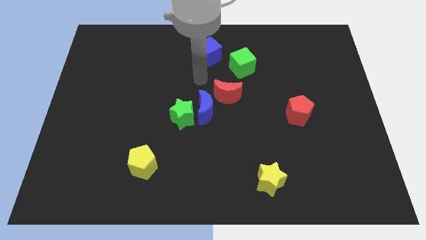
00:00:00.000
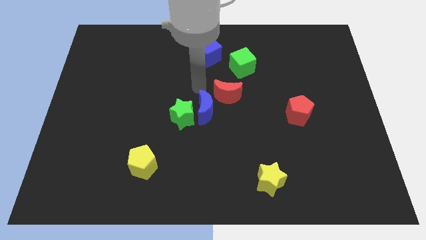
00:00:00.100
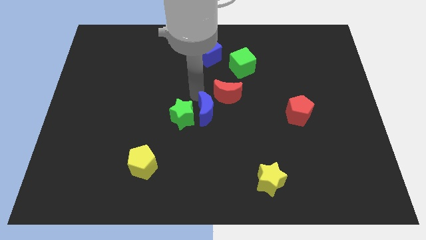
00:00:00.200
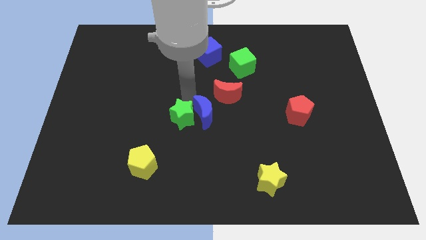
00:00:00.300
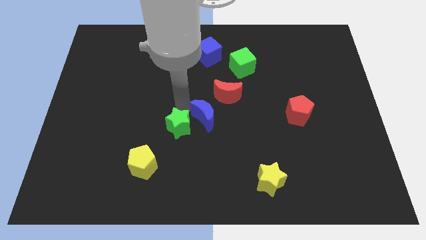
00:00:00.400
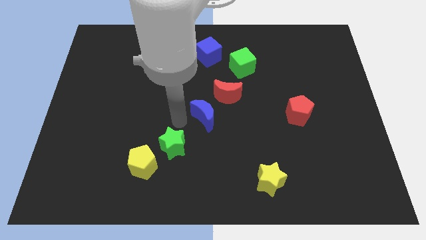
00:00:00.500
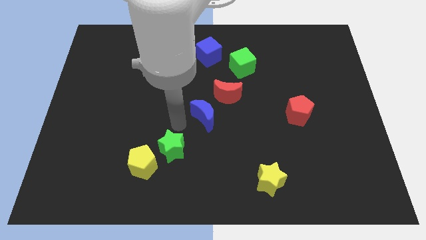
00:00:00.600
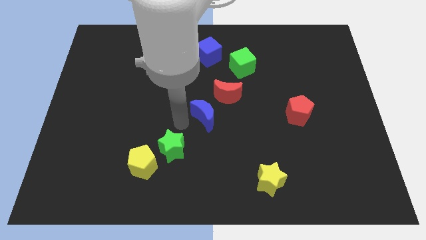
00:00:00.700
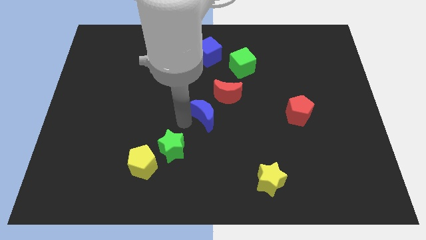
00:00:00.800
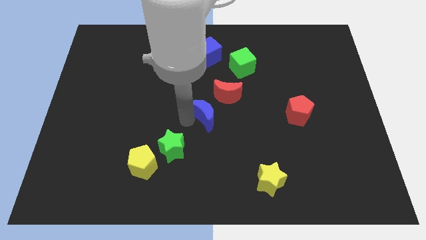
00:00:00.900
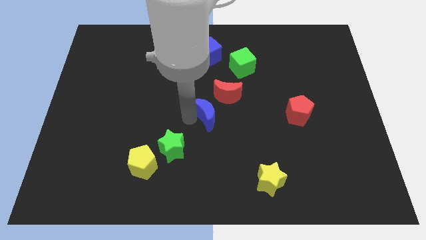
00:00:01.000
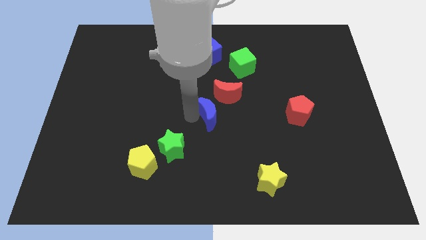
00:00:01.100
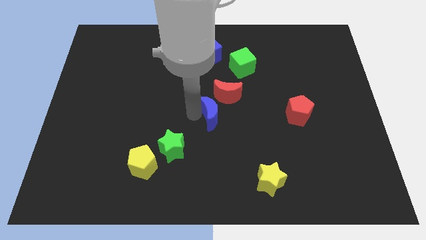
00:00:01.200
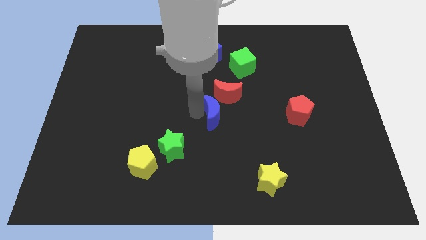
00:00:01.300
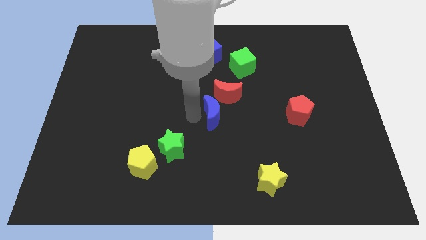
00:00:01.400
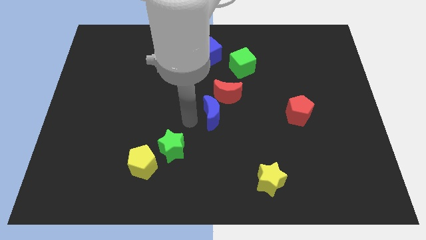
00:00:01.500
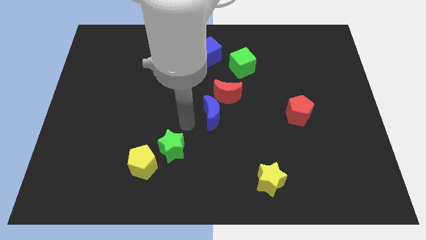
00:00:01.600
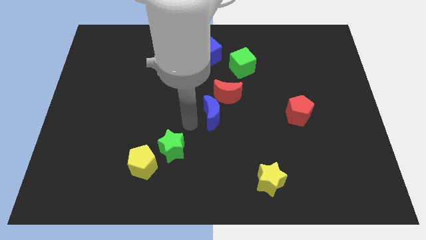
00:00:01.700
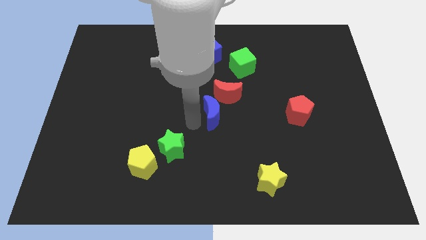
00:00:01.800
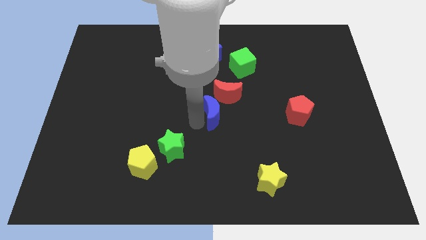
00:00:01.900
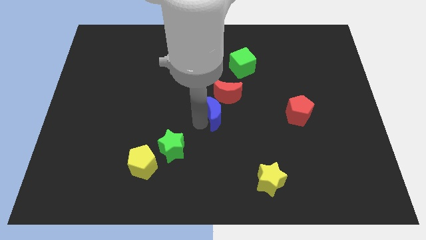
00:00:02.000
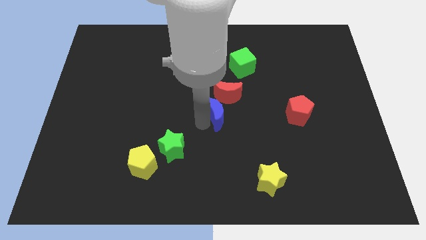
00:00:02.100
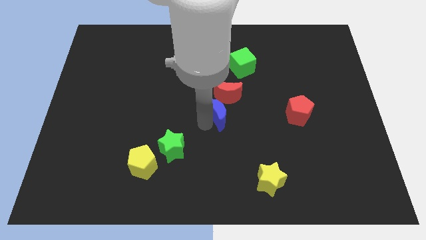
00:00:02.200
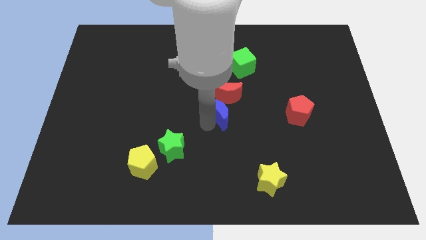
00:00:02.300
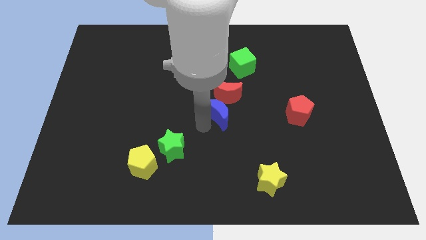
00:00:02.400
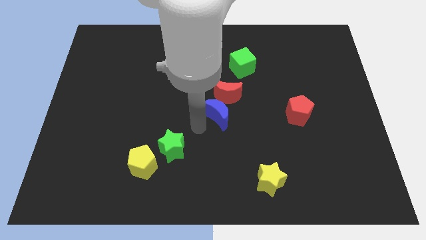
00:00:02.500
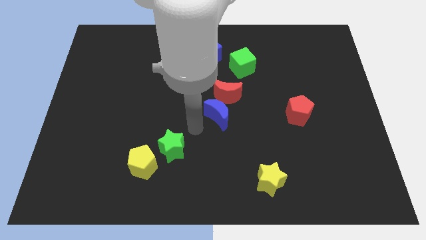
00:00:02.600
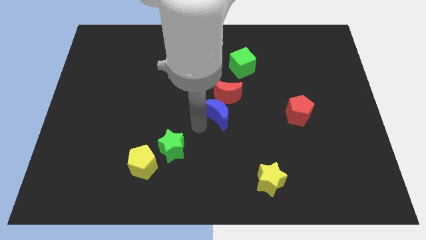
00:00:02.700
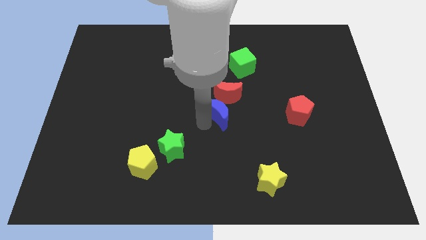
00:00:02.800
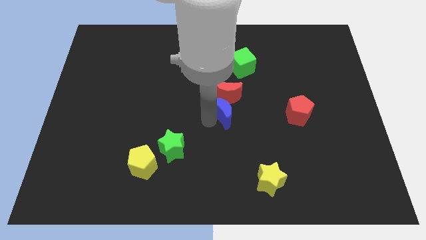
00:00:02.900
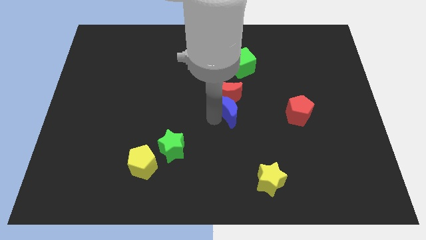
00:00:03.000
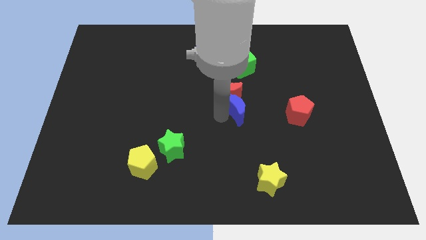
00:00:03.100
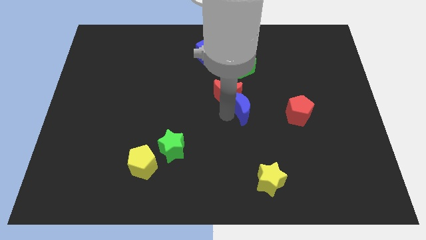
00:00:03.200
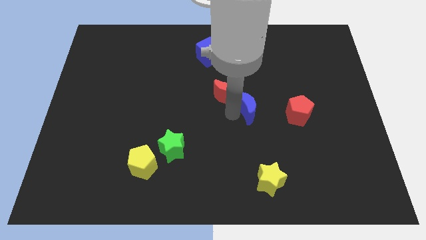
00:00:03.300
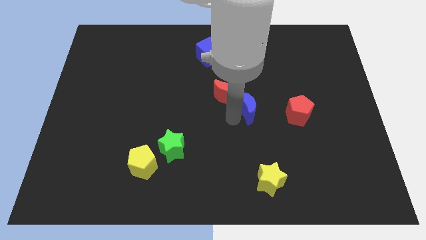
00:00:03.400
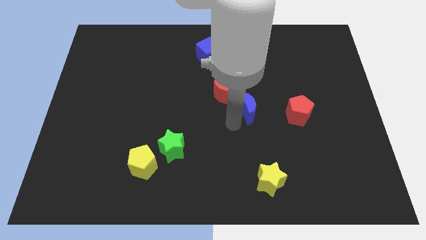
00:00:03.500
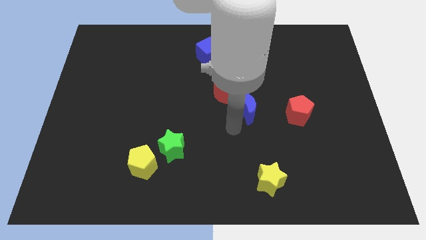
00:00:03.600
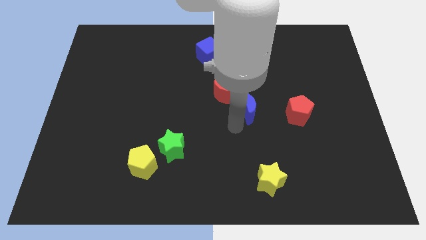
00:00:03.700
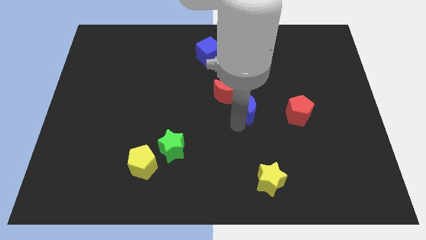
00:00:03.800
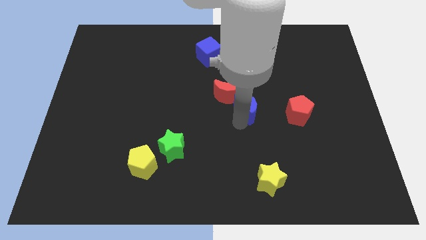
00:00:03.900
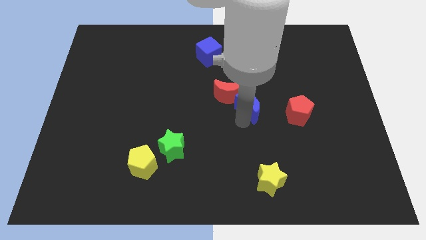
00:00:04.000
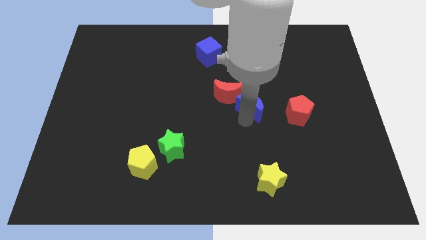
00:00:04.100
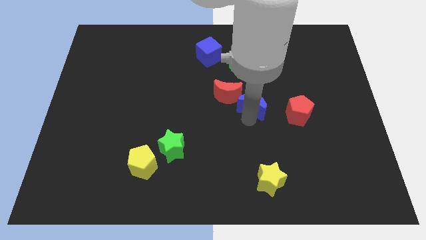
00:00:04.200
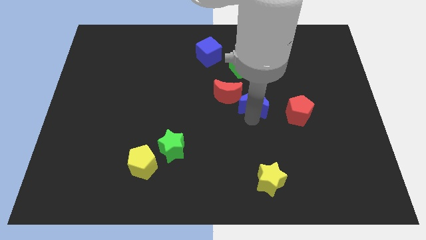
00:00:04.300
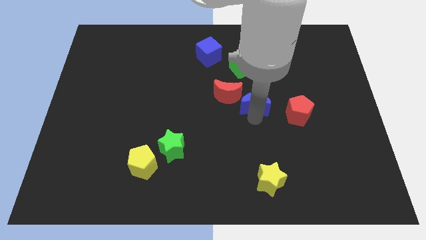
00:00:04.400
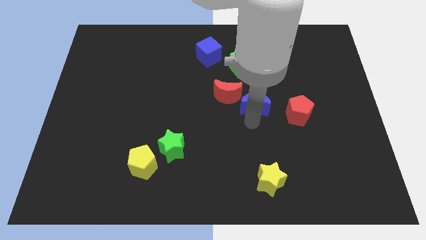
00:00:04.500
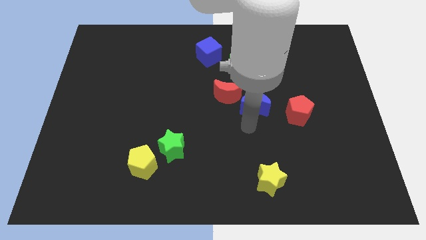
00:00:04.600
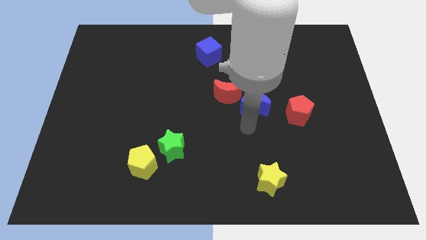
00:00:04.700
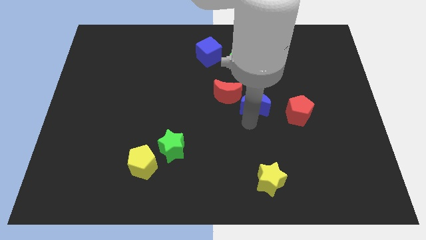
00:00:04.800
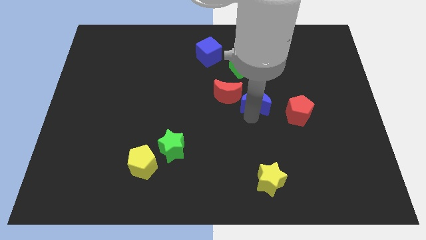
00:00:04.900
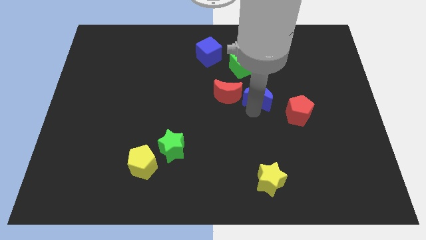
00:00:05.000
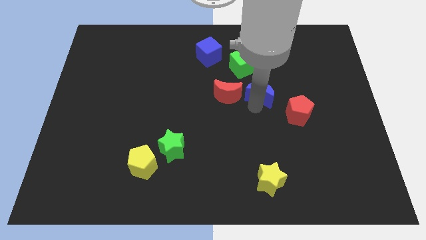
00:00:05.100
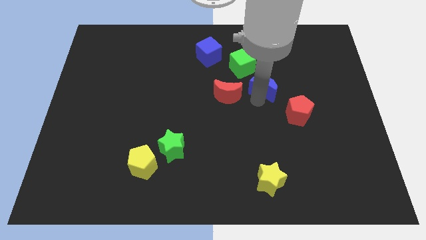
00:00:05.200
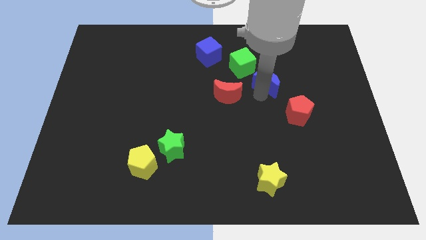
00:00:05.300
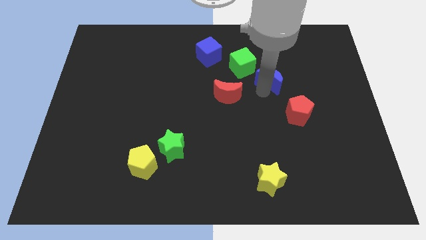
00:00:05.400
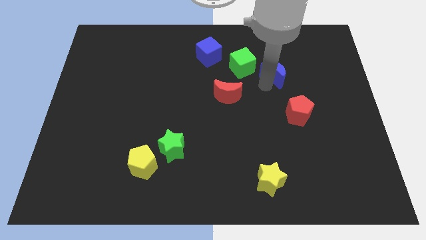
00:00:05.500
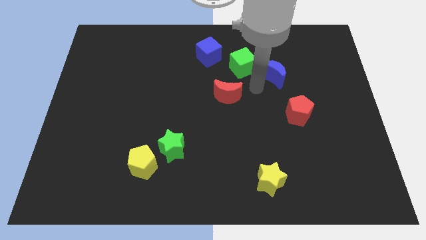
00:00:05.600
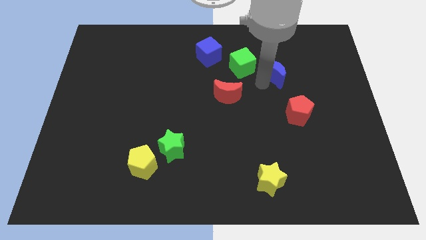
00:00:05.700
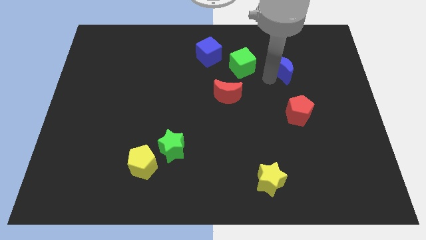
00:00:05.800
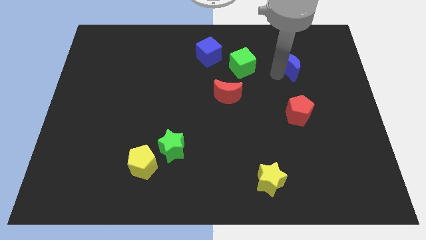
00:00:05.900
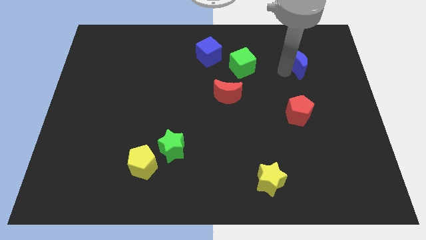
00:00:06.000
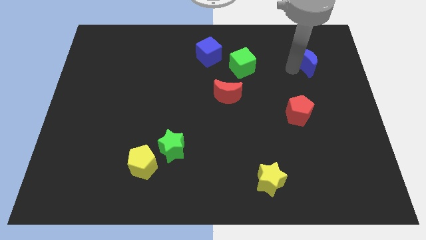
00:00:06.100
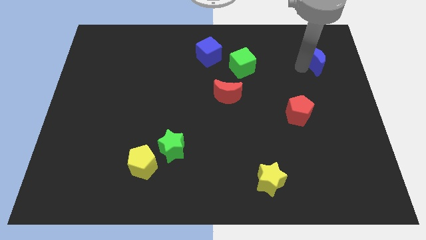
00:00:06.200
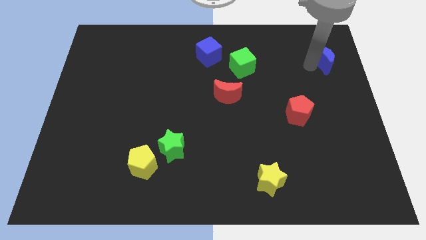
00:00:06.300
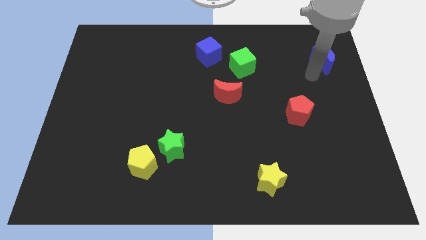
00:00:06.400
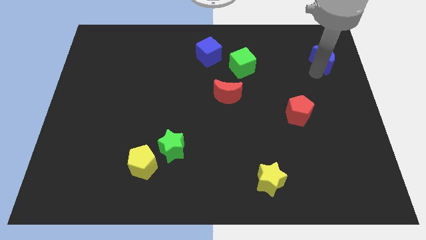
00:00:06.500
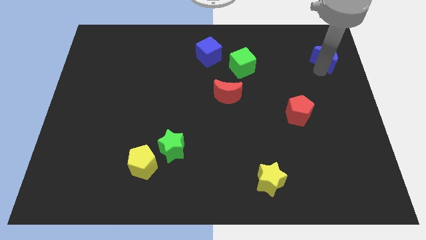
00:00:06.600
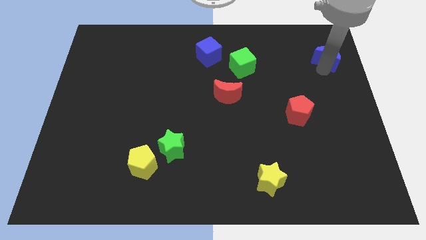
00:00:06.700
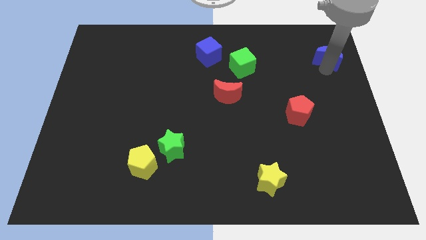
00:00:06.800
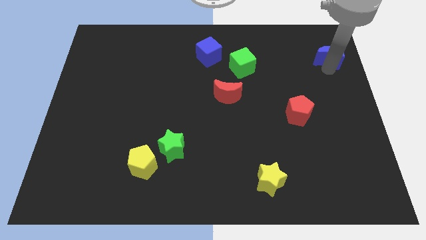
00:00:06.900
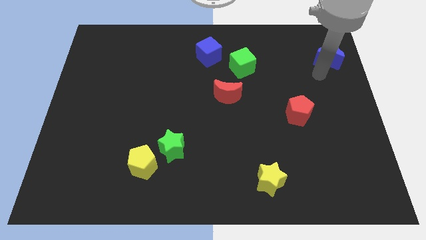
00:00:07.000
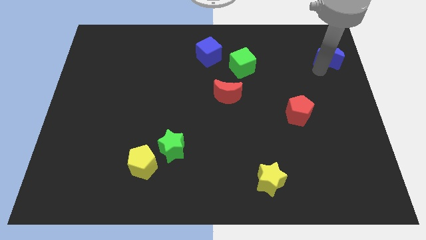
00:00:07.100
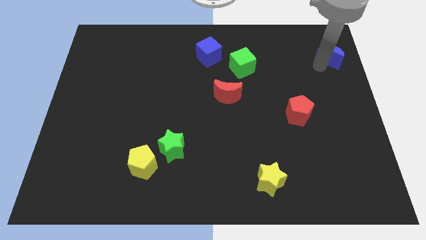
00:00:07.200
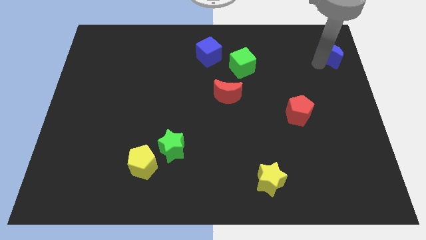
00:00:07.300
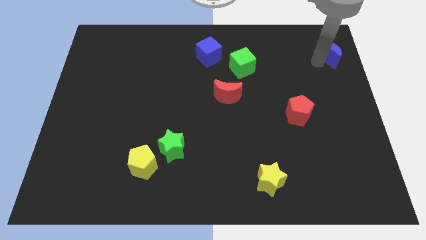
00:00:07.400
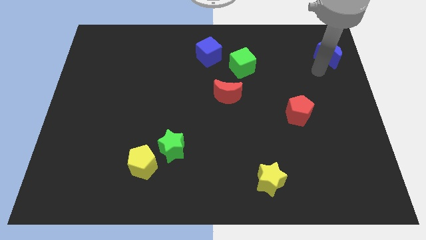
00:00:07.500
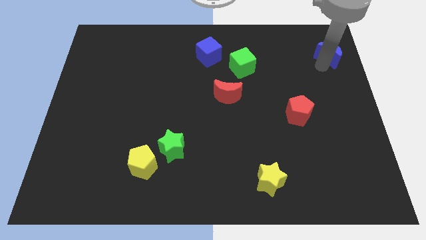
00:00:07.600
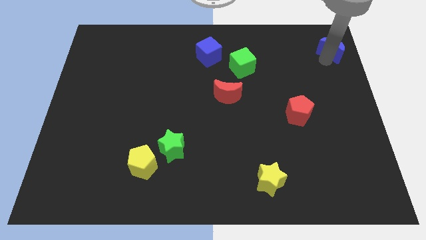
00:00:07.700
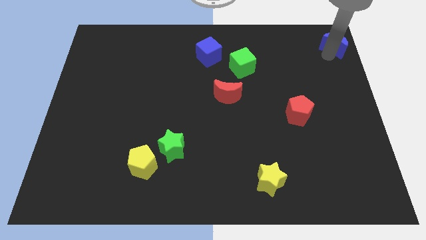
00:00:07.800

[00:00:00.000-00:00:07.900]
push the blue moon to the top right corner
